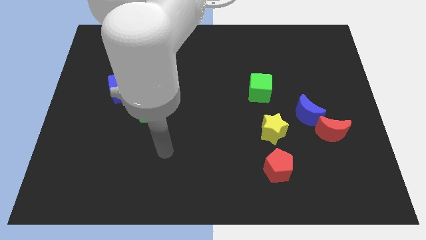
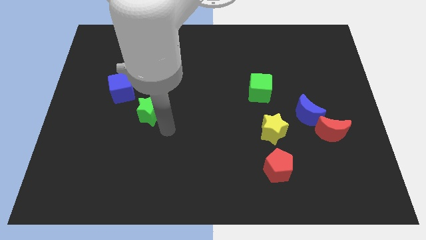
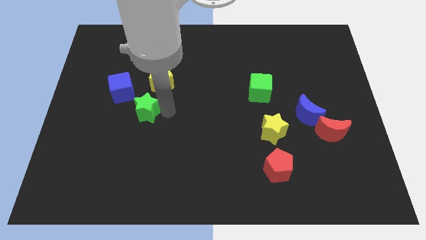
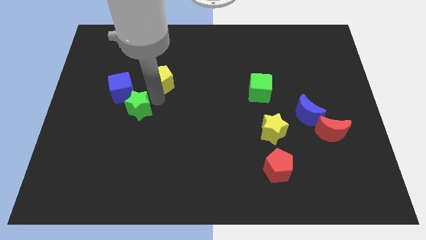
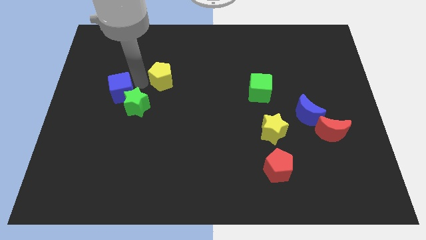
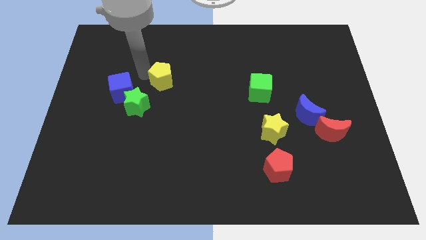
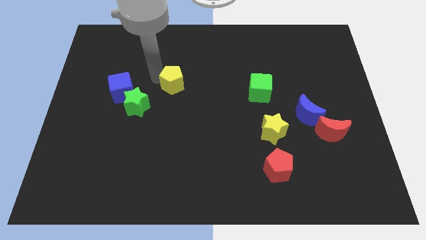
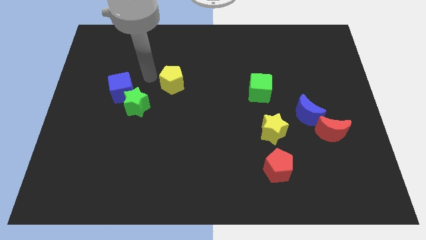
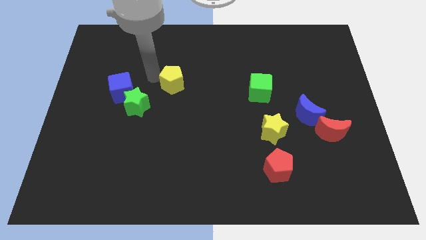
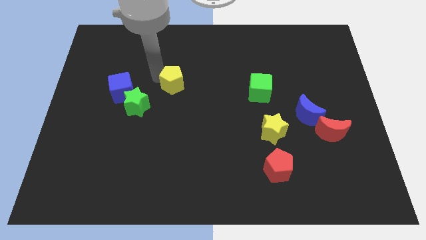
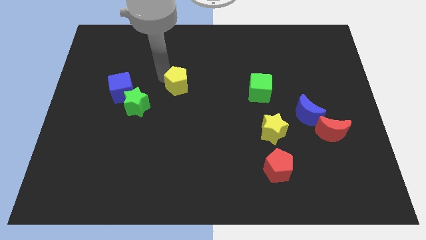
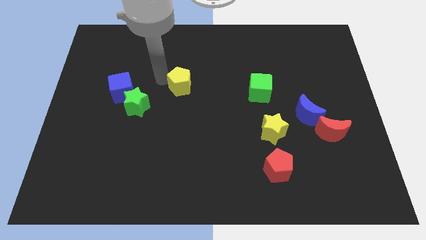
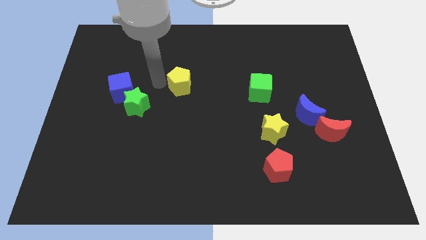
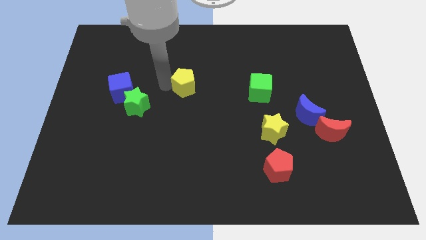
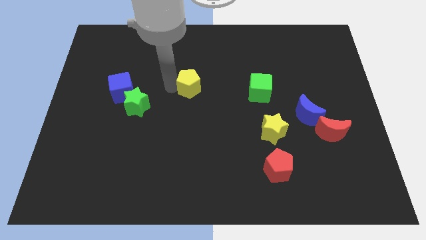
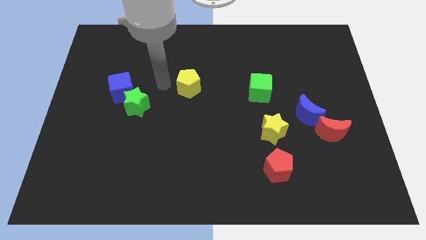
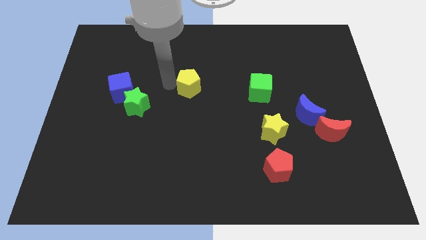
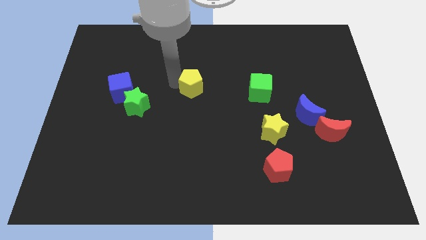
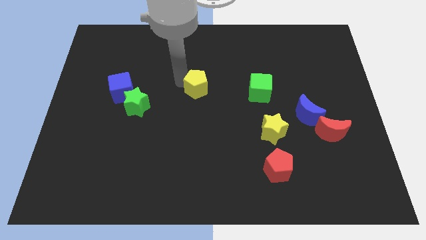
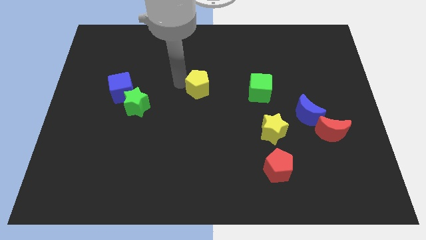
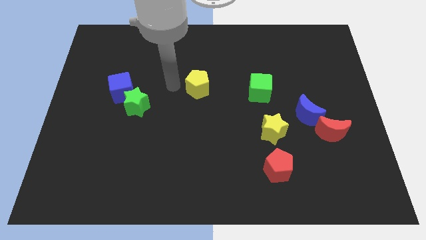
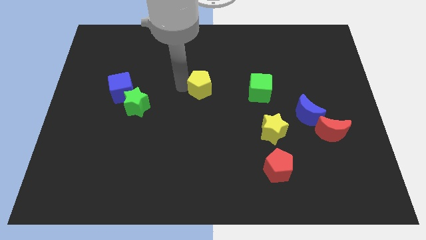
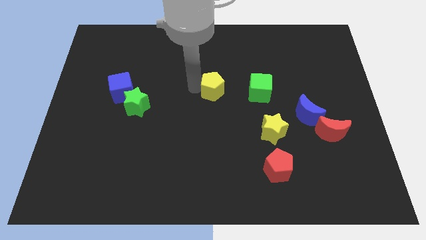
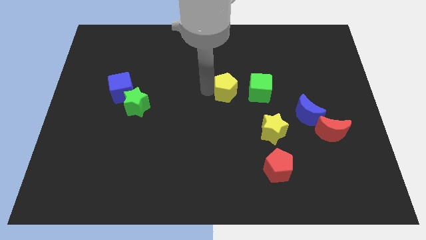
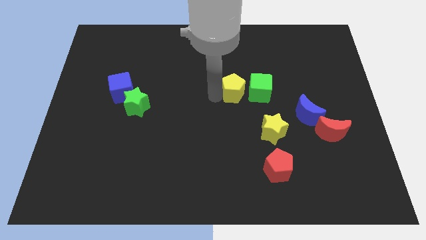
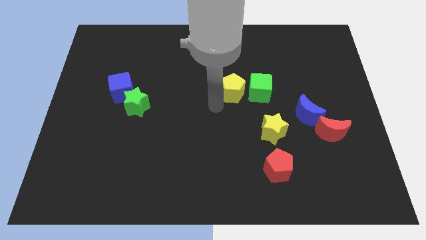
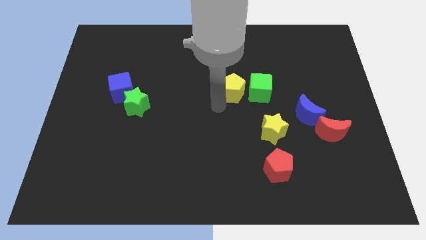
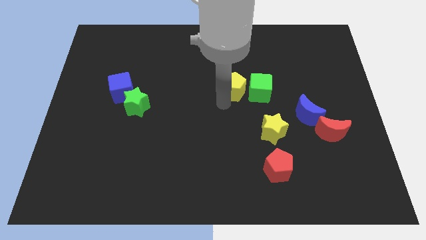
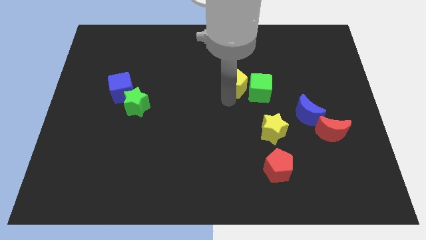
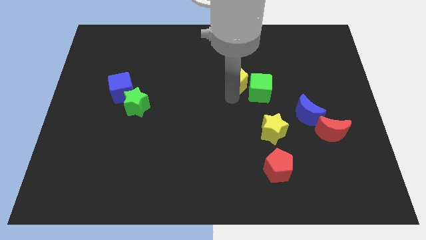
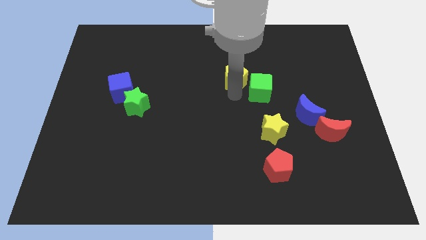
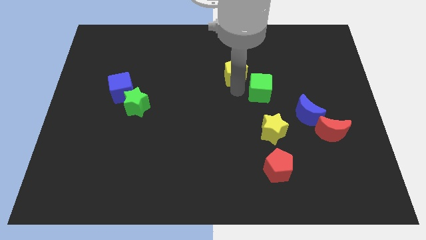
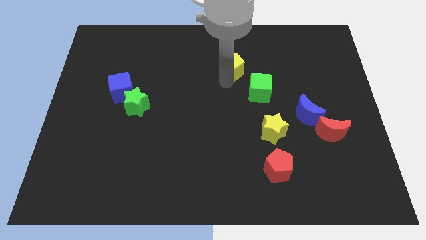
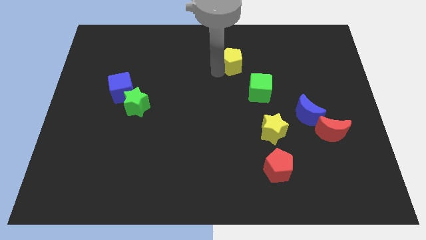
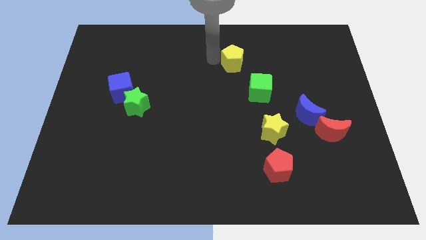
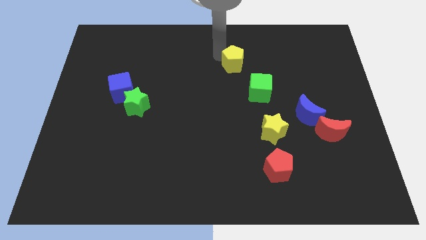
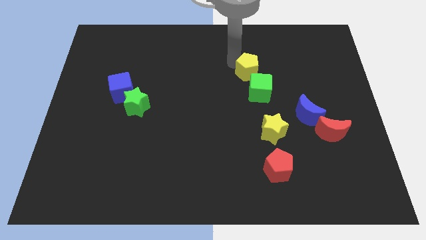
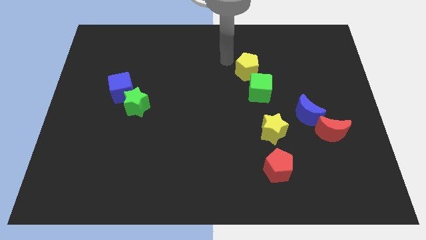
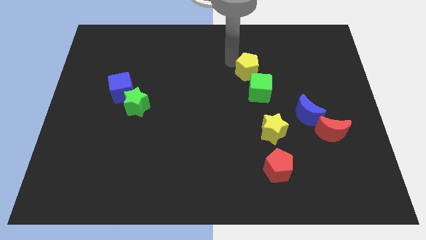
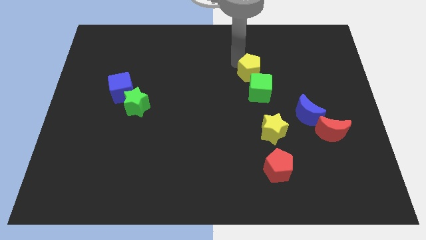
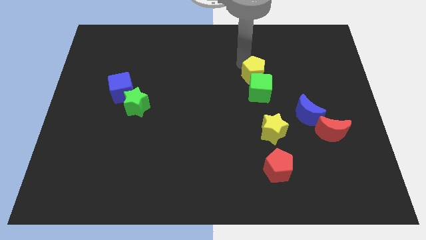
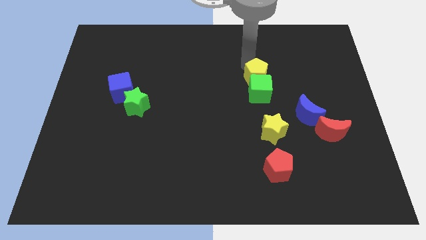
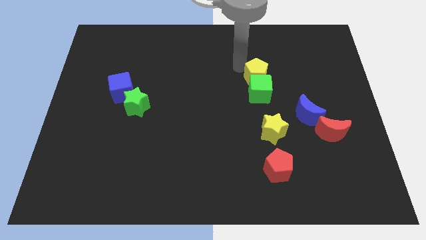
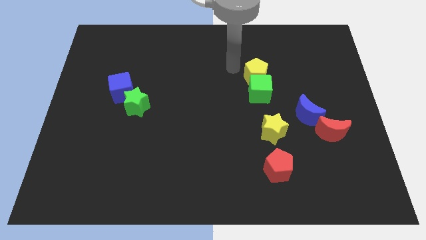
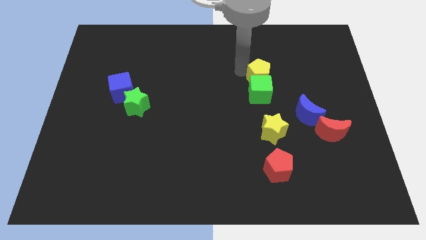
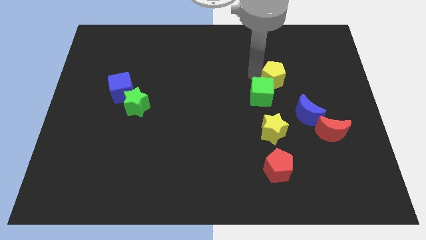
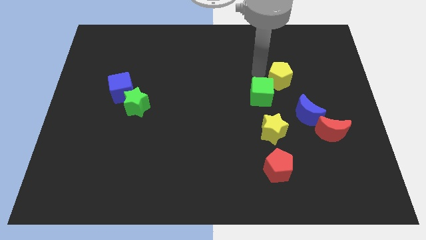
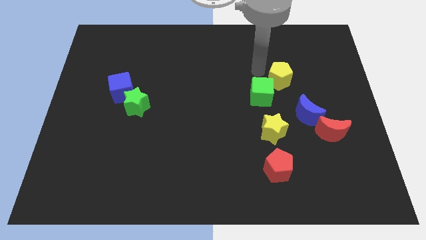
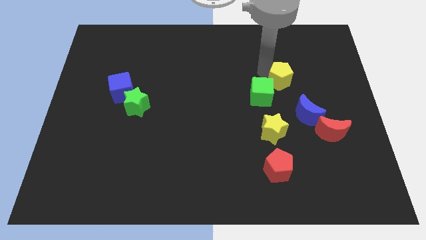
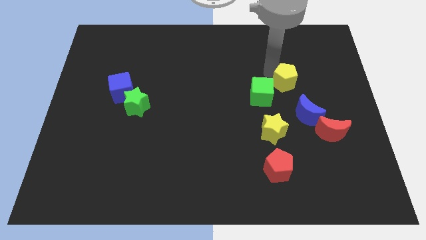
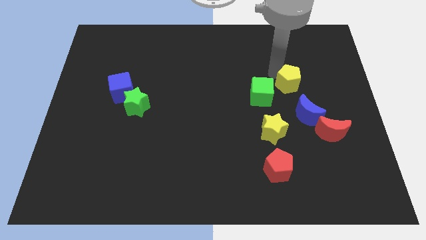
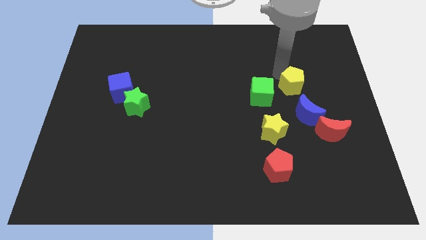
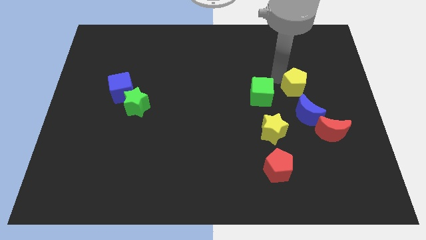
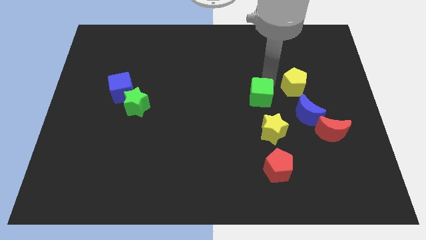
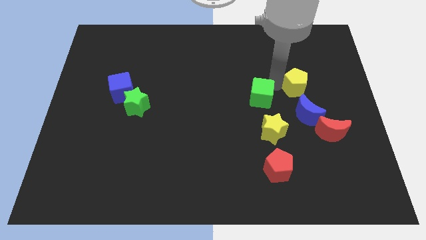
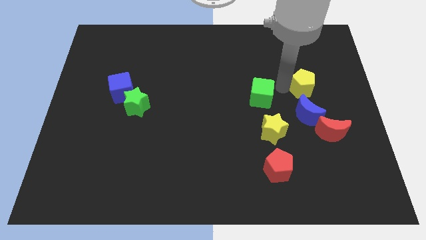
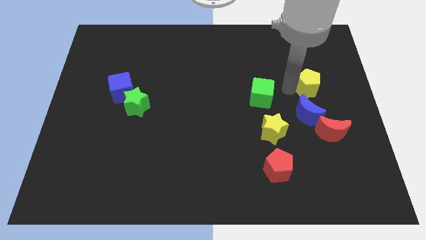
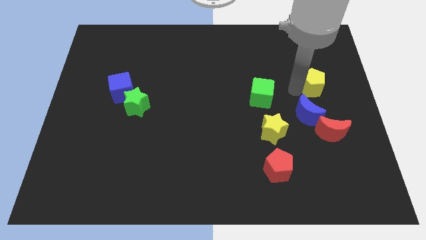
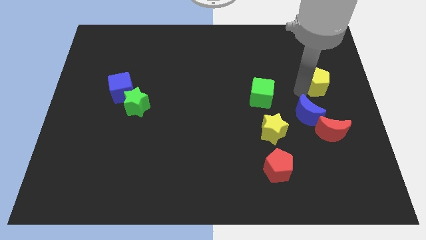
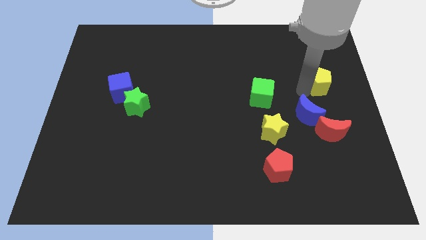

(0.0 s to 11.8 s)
slide the yellow pentagon to the center right

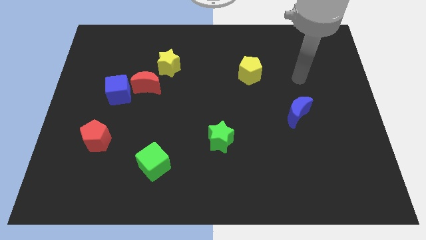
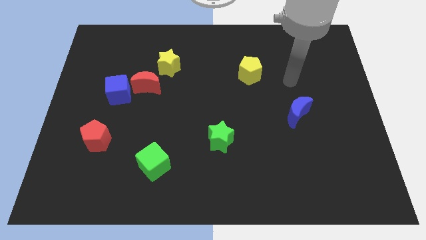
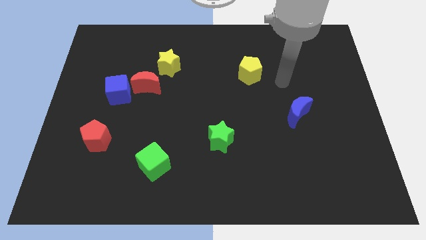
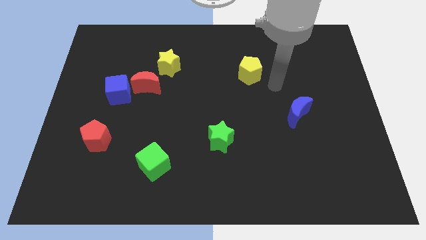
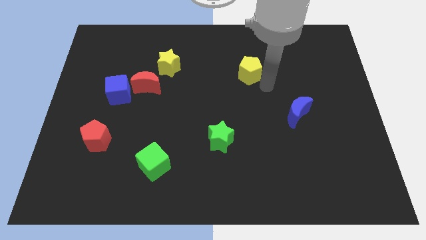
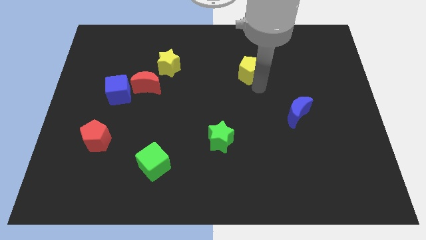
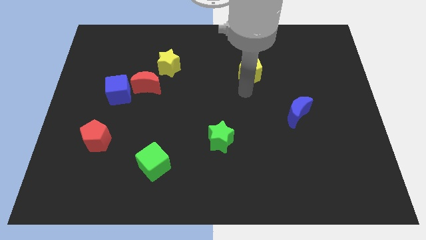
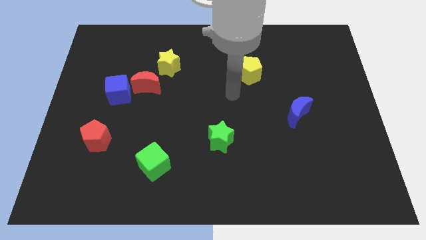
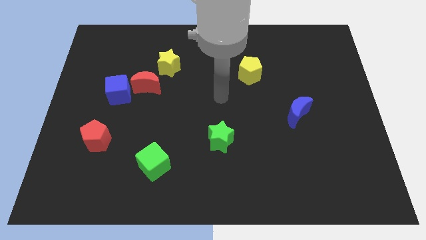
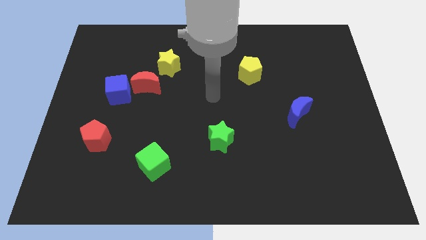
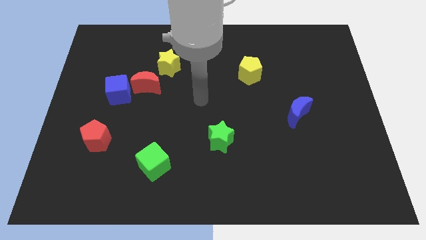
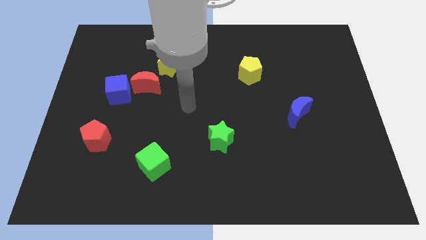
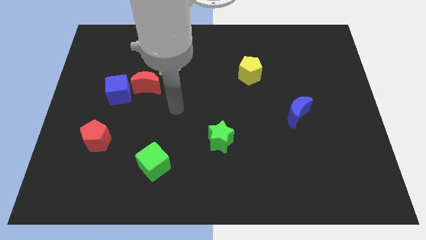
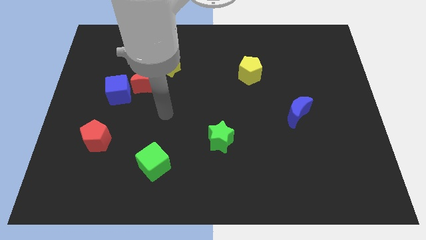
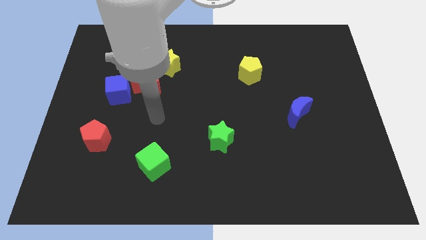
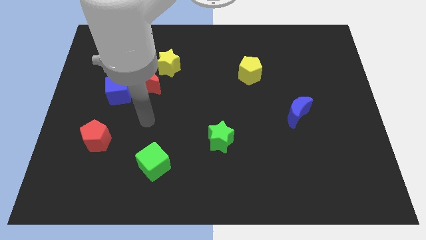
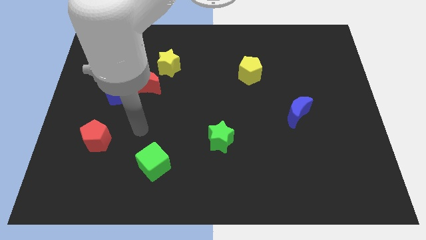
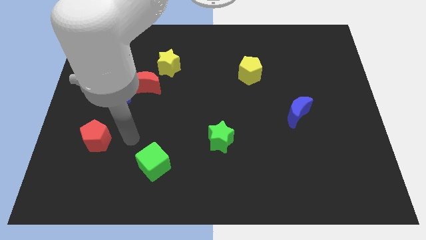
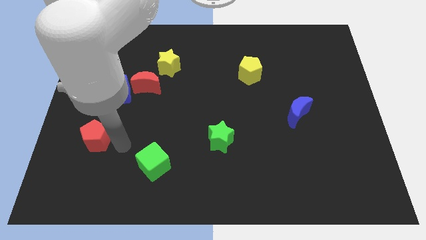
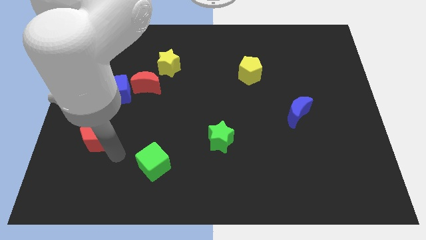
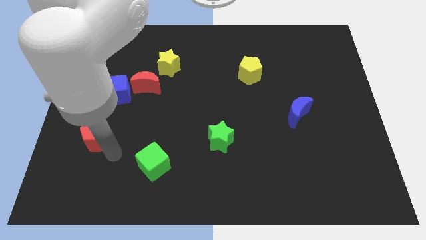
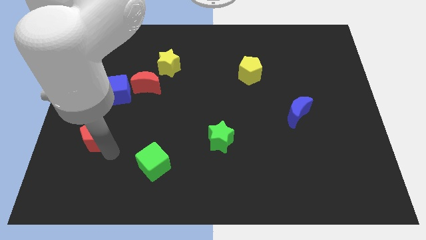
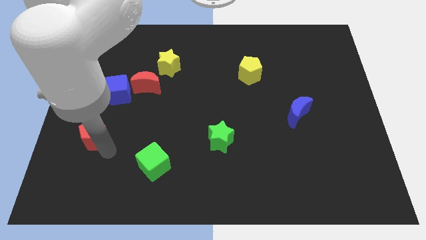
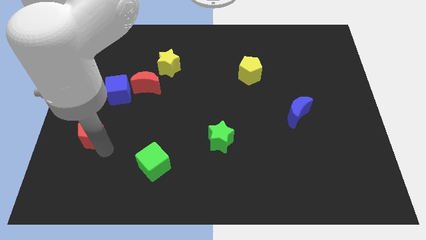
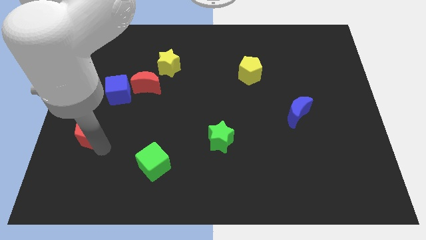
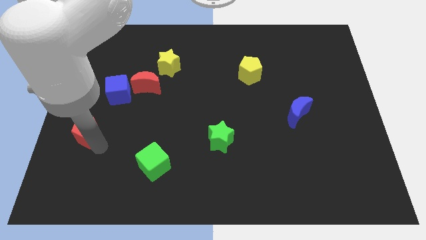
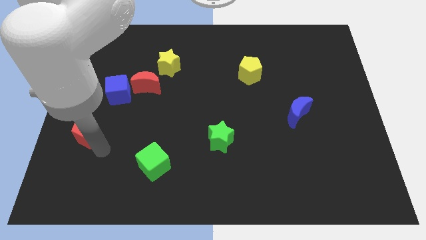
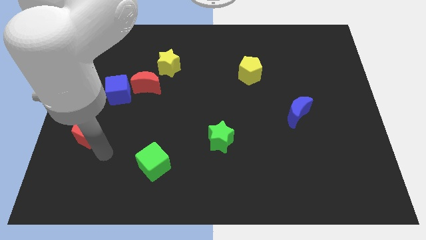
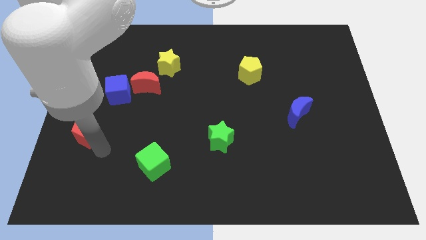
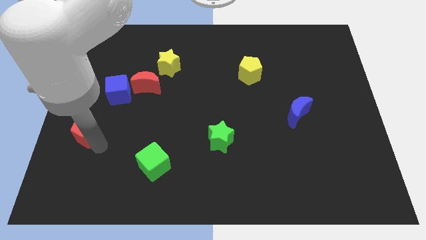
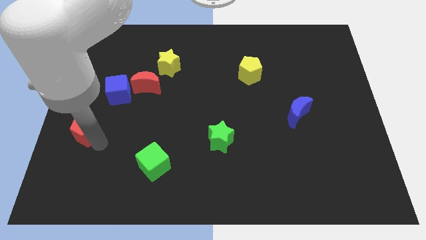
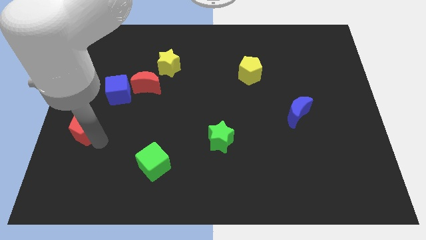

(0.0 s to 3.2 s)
put the red pentagon to the center left
